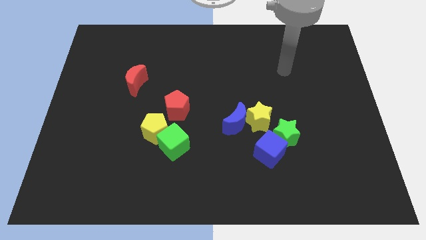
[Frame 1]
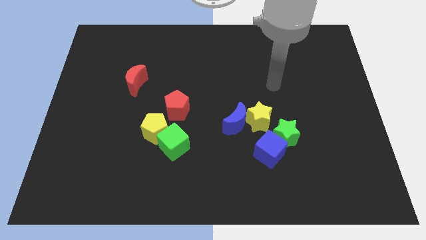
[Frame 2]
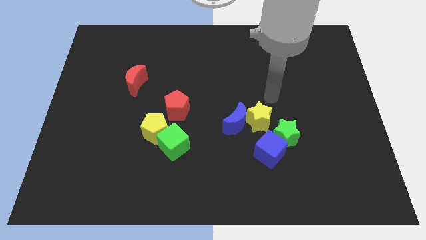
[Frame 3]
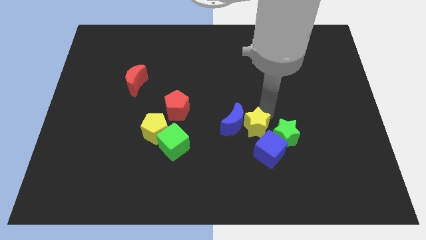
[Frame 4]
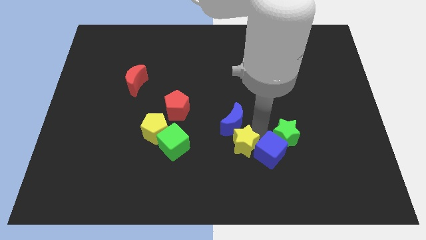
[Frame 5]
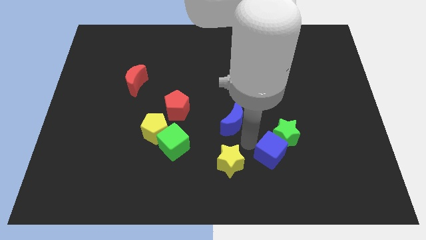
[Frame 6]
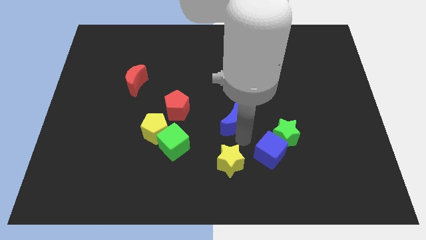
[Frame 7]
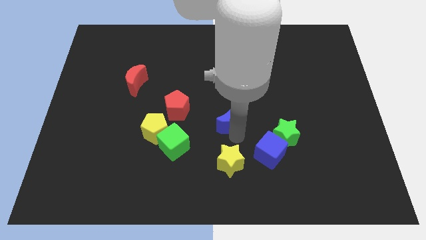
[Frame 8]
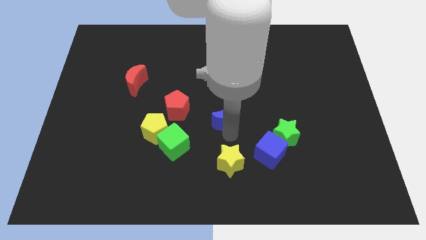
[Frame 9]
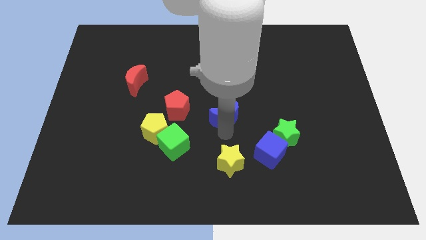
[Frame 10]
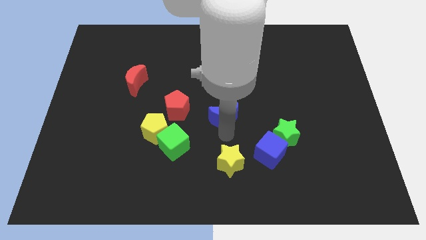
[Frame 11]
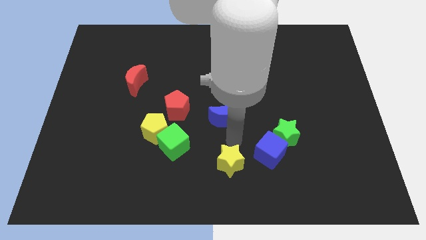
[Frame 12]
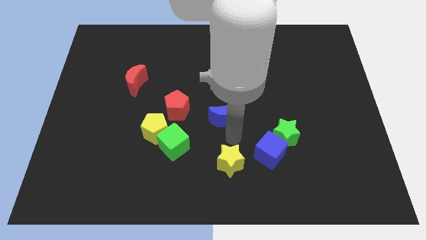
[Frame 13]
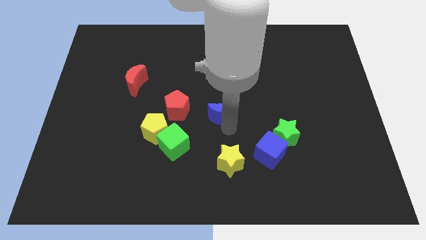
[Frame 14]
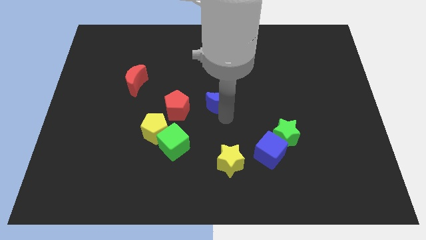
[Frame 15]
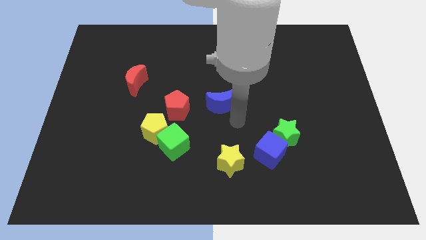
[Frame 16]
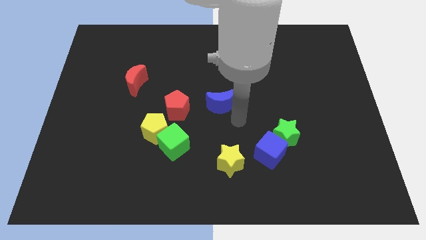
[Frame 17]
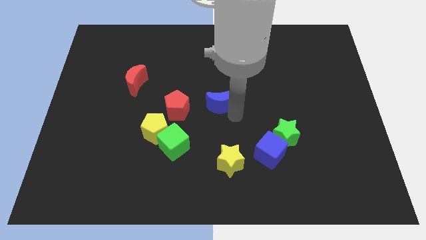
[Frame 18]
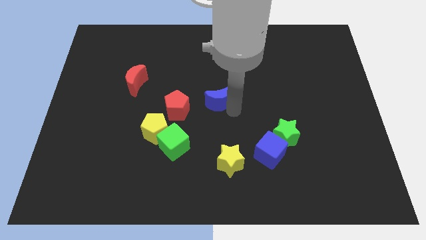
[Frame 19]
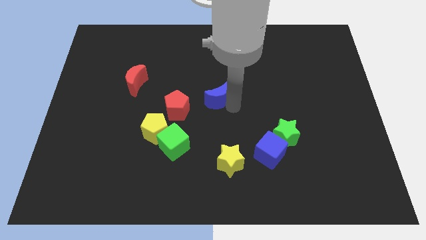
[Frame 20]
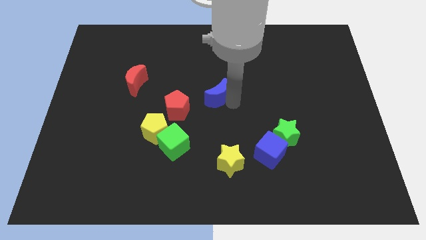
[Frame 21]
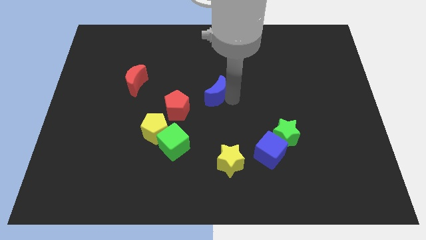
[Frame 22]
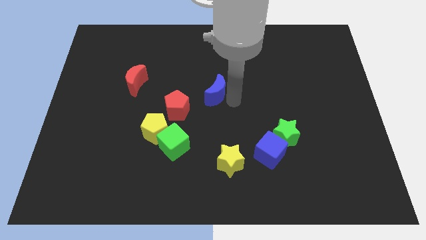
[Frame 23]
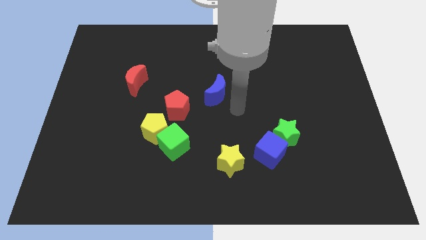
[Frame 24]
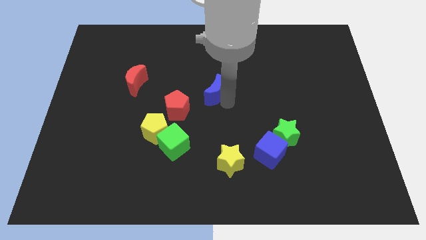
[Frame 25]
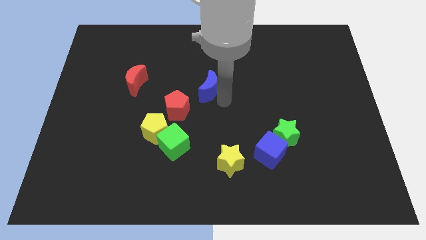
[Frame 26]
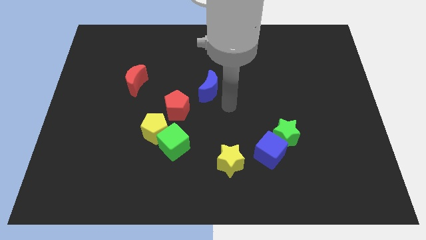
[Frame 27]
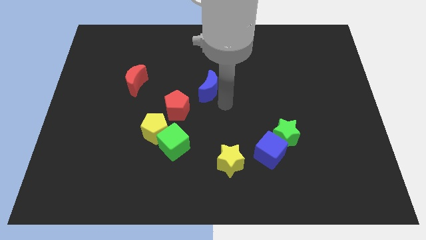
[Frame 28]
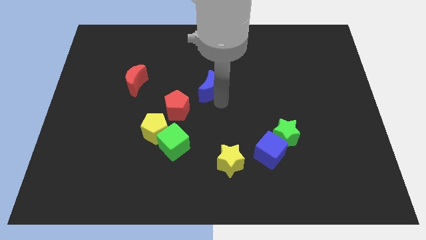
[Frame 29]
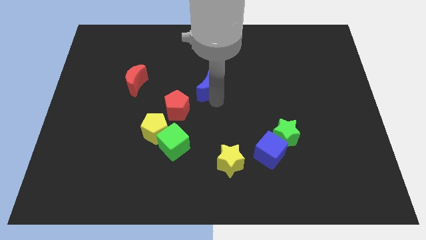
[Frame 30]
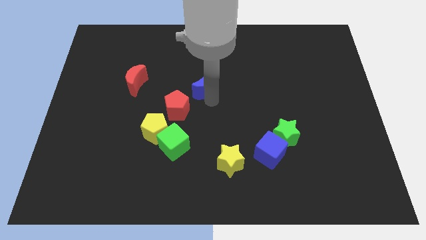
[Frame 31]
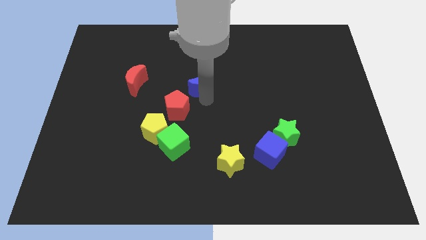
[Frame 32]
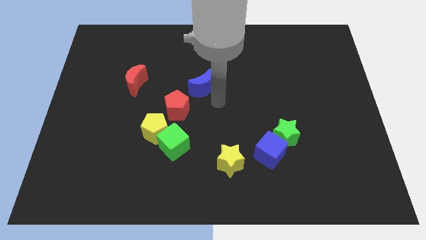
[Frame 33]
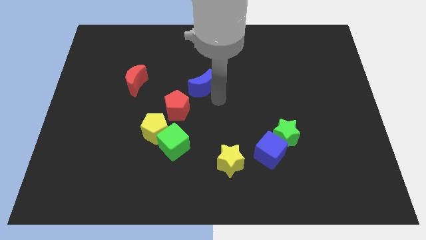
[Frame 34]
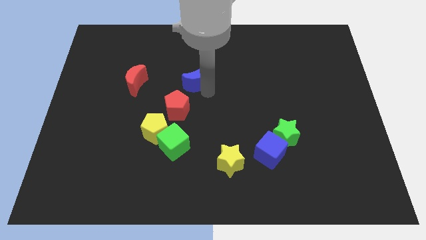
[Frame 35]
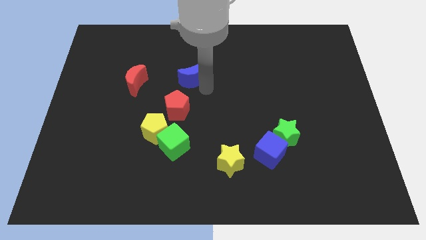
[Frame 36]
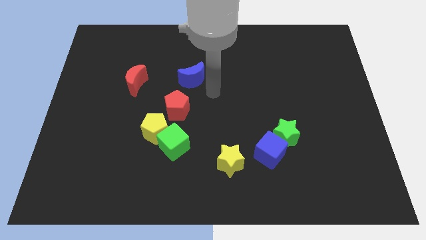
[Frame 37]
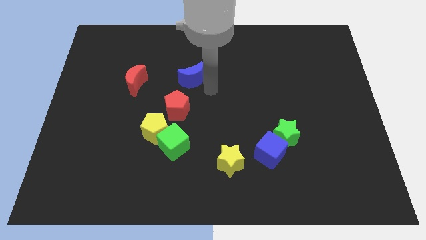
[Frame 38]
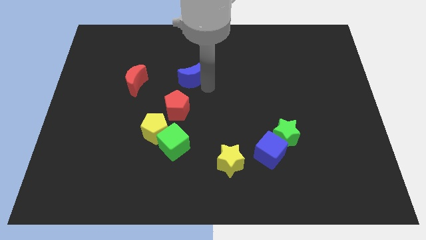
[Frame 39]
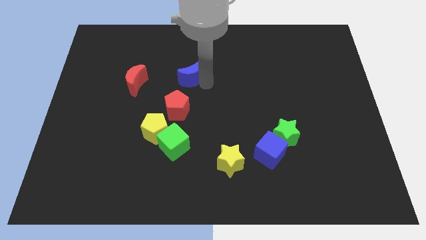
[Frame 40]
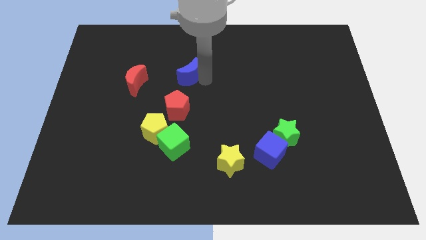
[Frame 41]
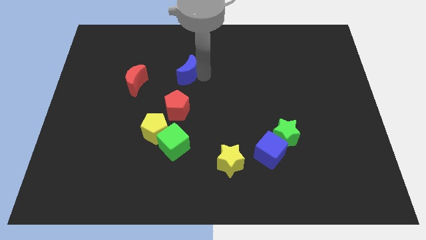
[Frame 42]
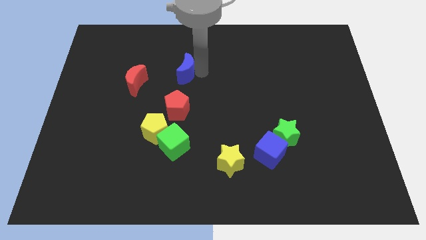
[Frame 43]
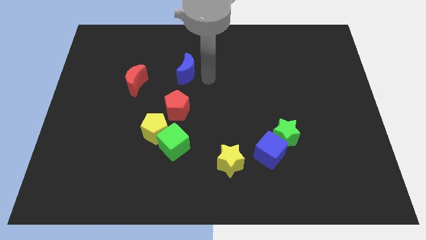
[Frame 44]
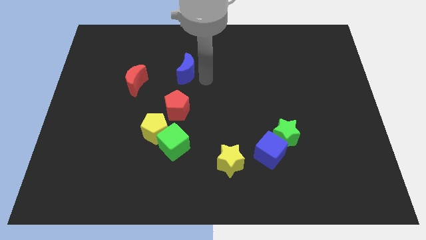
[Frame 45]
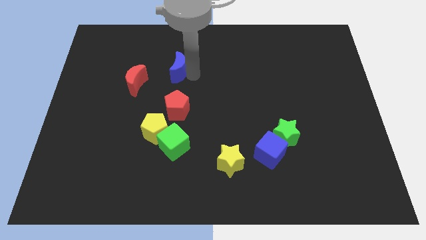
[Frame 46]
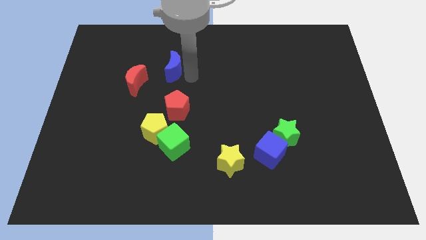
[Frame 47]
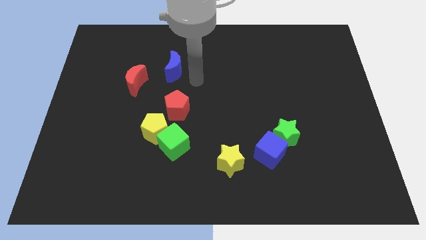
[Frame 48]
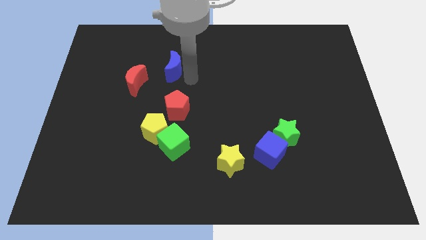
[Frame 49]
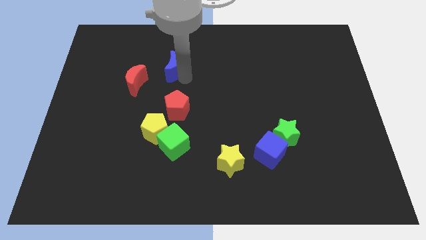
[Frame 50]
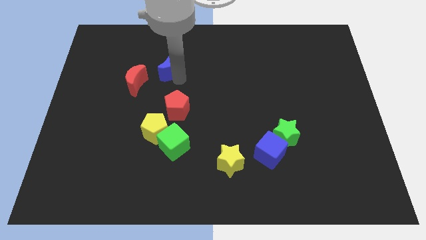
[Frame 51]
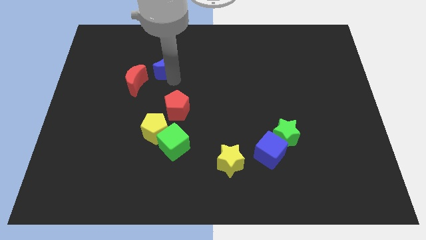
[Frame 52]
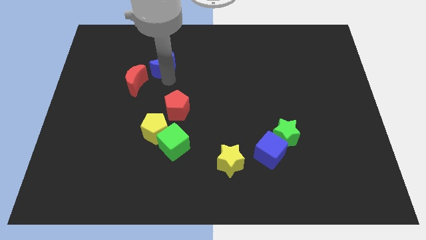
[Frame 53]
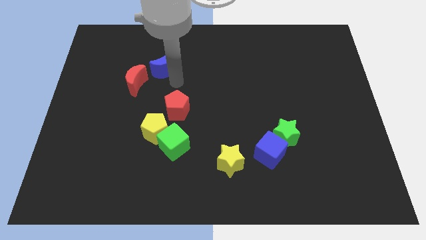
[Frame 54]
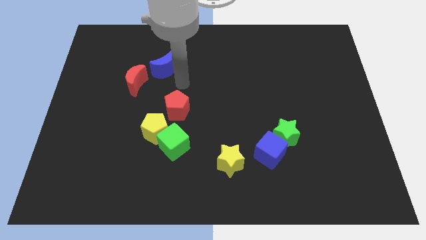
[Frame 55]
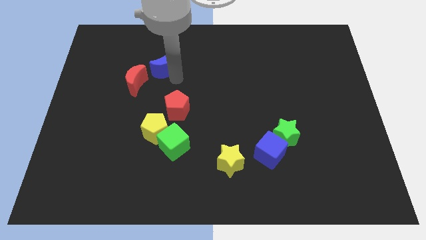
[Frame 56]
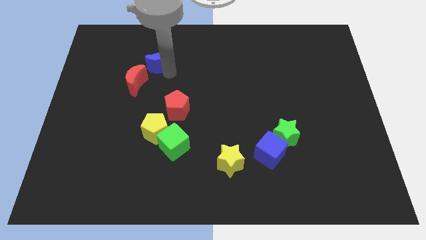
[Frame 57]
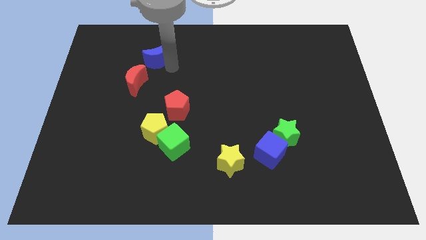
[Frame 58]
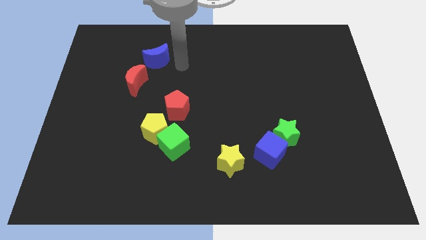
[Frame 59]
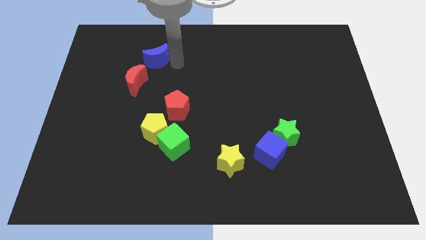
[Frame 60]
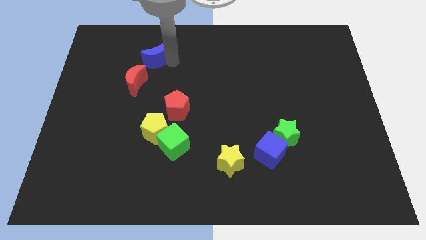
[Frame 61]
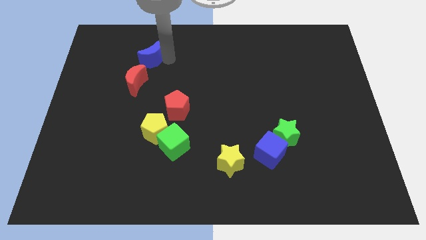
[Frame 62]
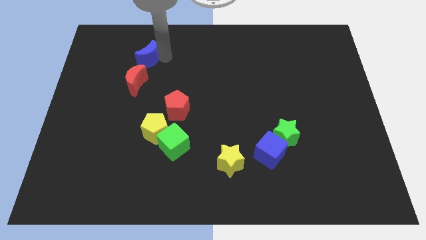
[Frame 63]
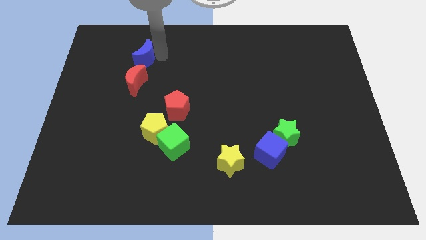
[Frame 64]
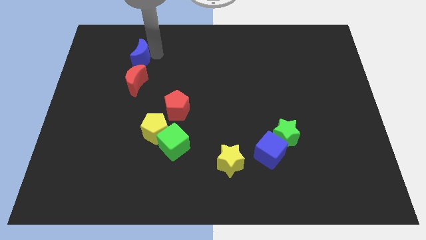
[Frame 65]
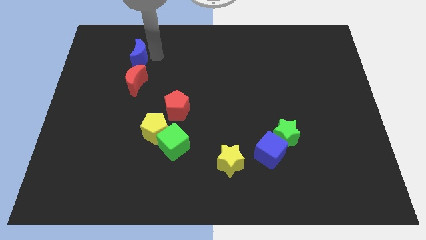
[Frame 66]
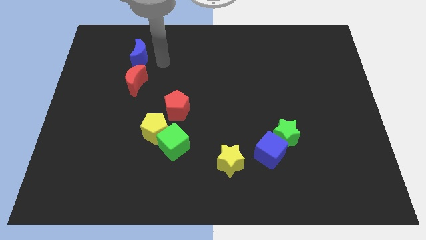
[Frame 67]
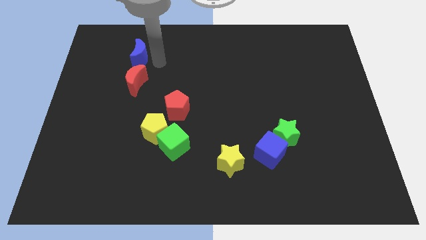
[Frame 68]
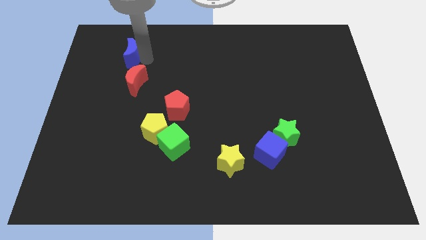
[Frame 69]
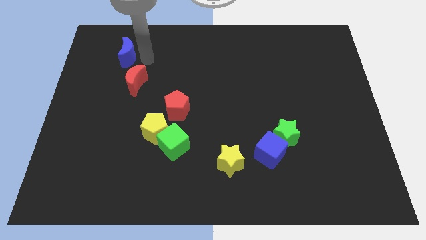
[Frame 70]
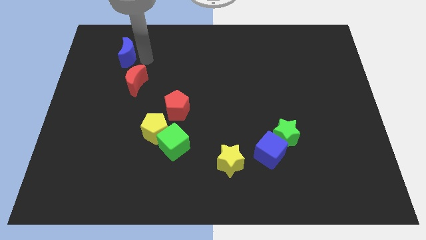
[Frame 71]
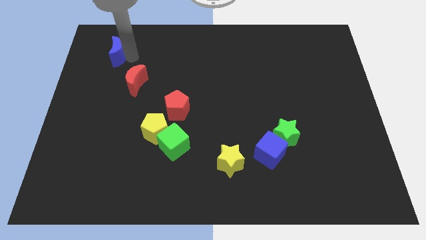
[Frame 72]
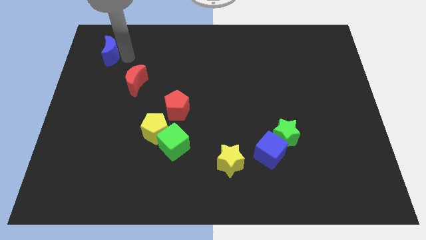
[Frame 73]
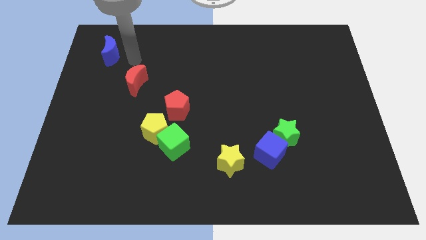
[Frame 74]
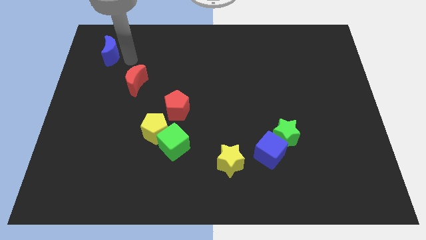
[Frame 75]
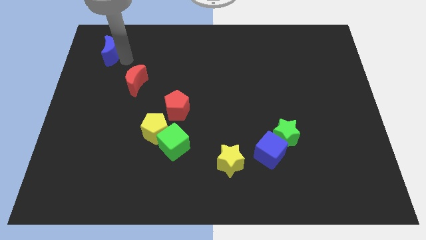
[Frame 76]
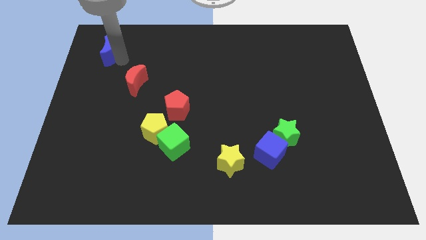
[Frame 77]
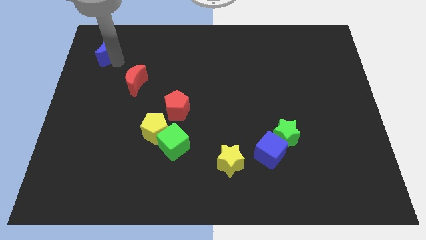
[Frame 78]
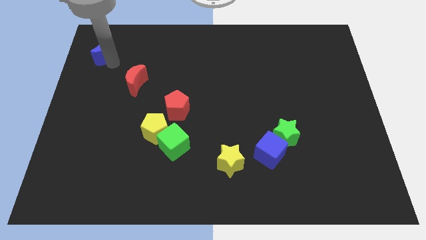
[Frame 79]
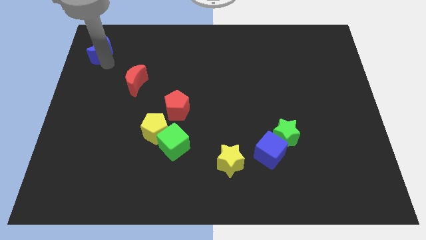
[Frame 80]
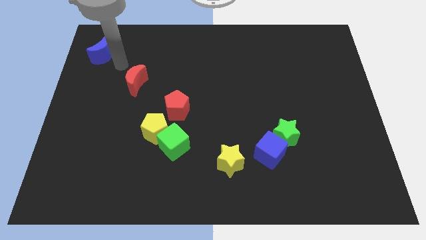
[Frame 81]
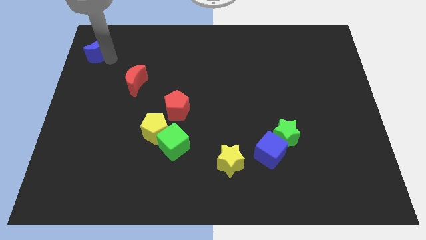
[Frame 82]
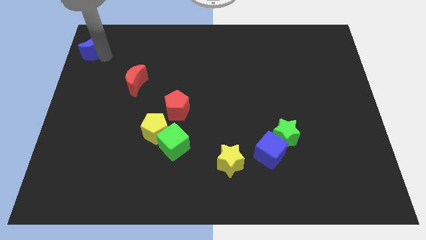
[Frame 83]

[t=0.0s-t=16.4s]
move the blue moon to the top left corner
